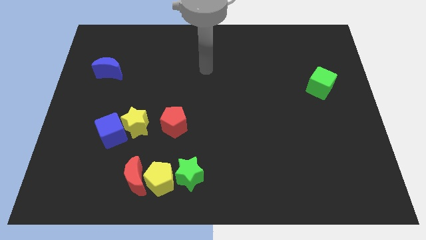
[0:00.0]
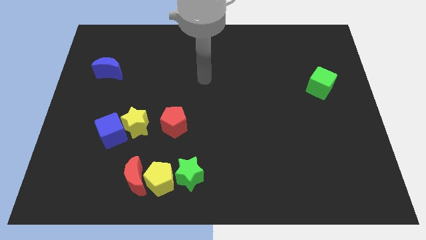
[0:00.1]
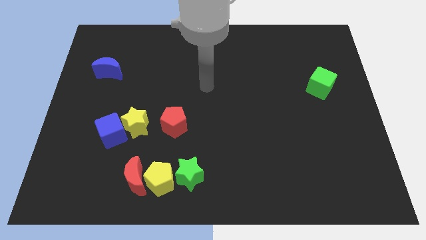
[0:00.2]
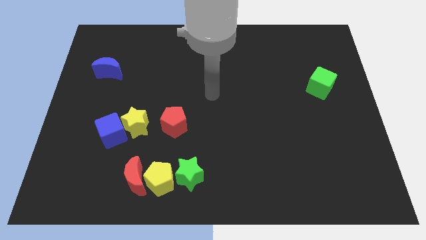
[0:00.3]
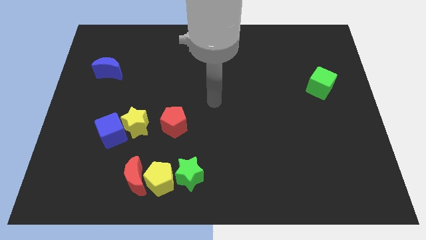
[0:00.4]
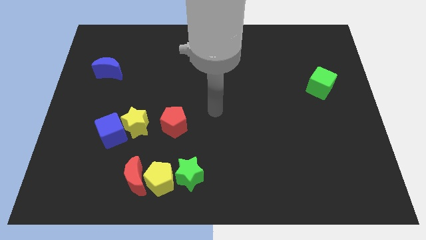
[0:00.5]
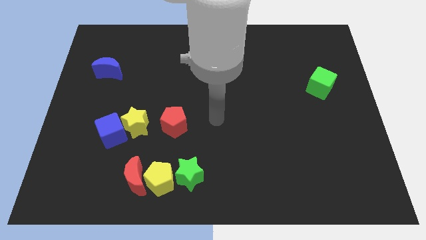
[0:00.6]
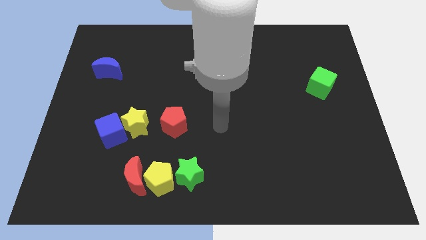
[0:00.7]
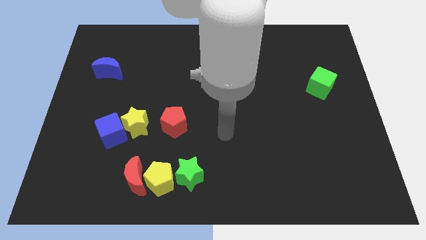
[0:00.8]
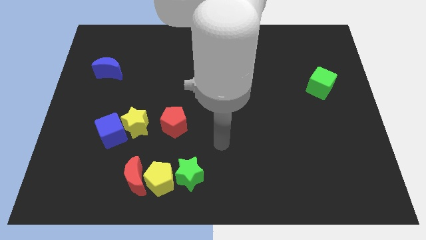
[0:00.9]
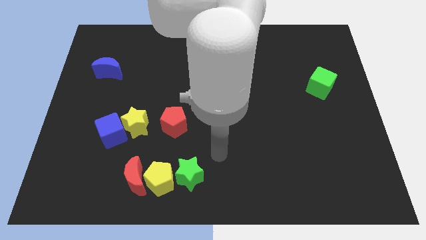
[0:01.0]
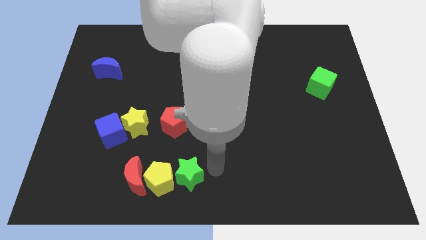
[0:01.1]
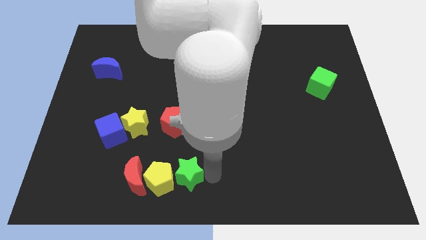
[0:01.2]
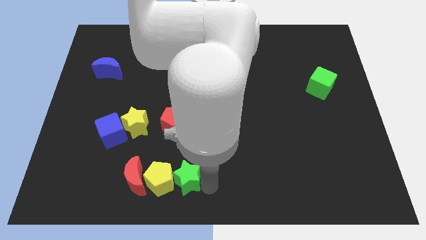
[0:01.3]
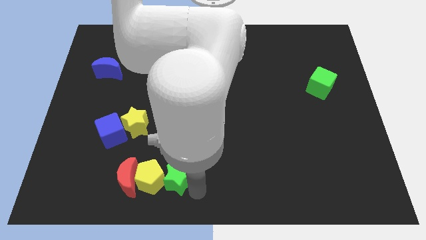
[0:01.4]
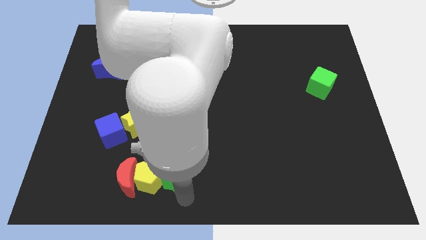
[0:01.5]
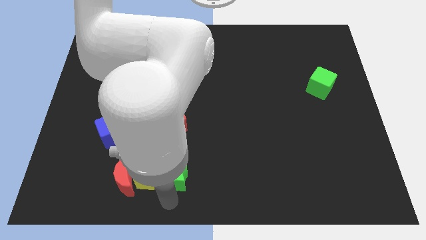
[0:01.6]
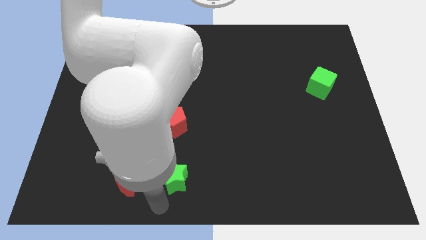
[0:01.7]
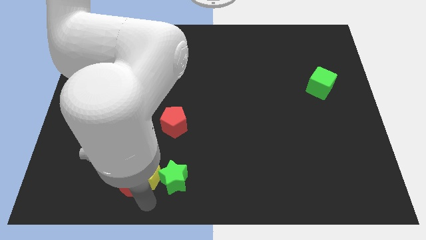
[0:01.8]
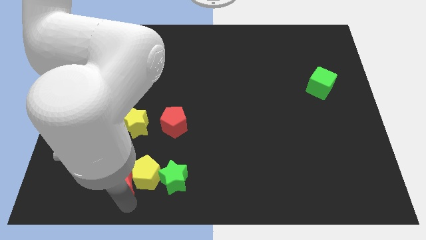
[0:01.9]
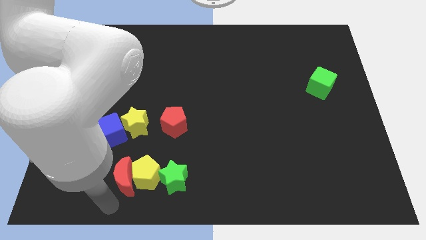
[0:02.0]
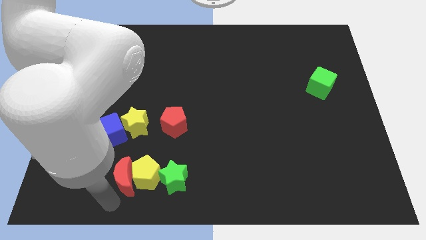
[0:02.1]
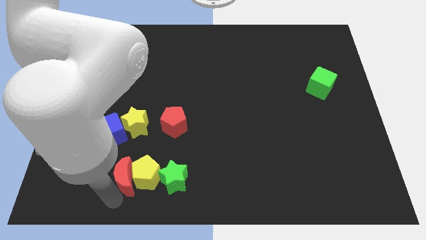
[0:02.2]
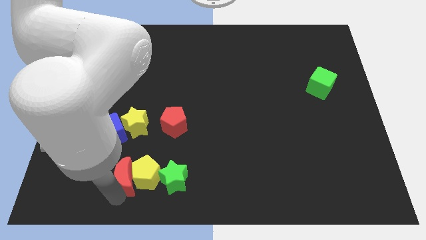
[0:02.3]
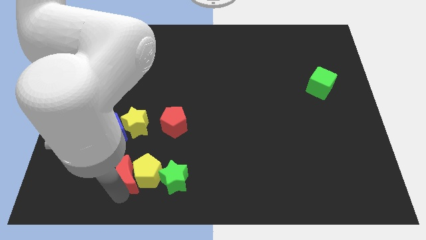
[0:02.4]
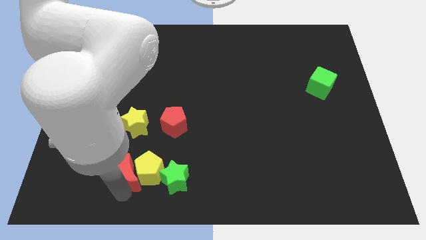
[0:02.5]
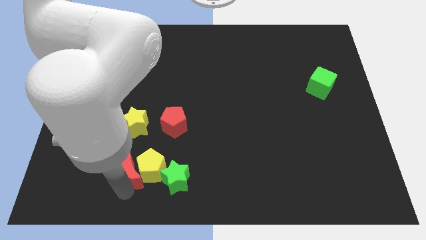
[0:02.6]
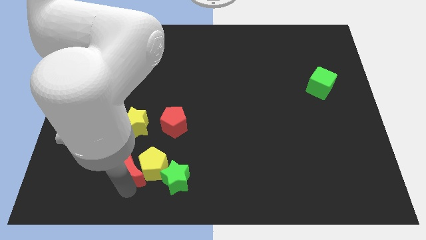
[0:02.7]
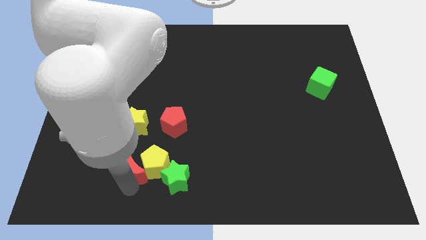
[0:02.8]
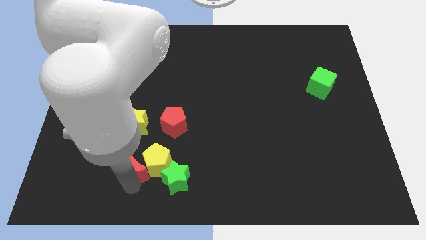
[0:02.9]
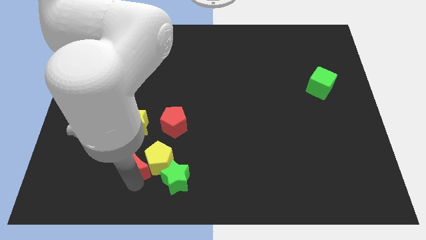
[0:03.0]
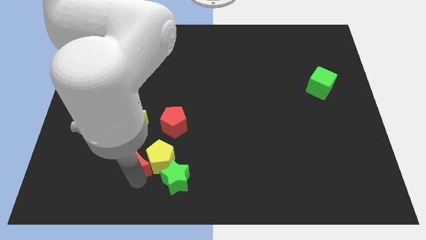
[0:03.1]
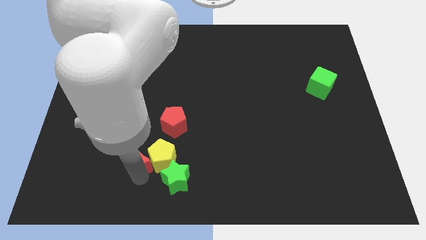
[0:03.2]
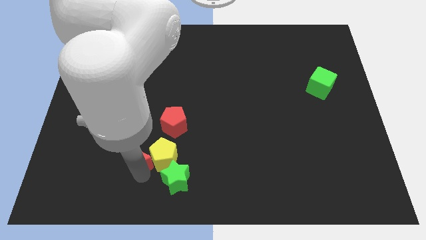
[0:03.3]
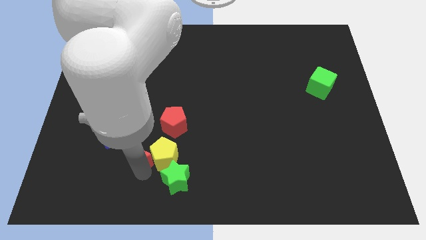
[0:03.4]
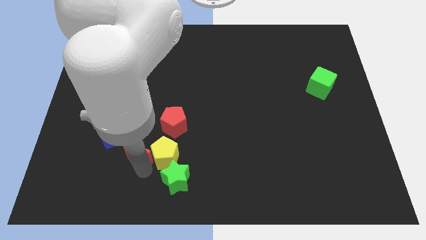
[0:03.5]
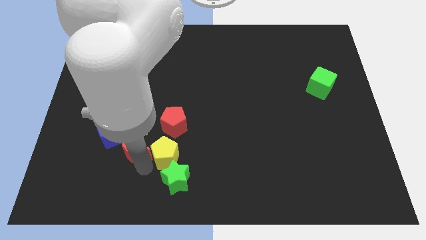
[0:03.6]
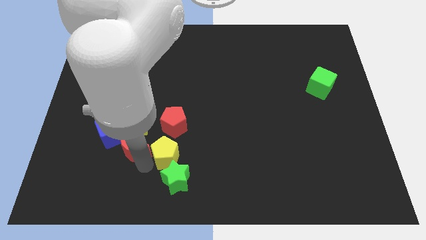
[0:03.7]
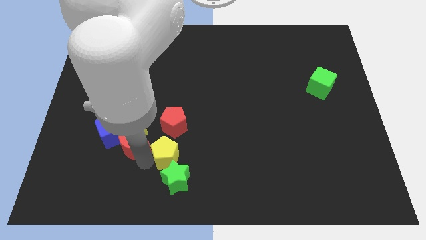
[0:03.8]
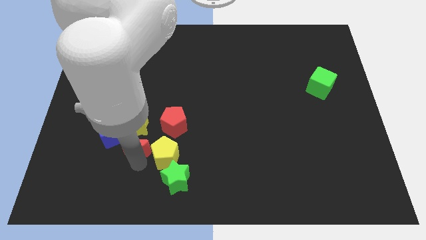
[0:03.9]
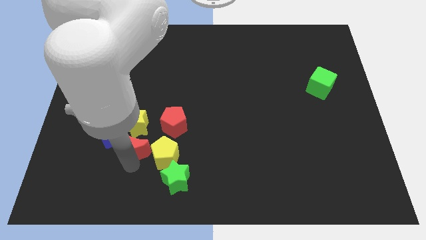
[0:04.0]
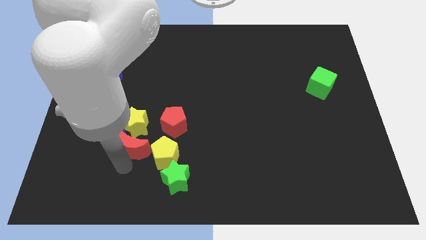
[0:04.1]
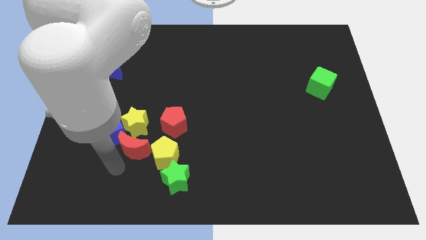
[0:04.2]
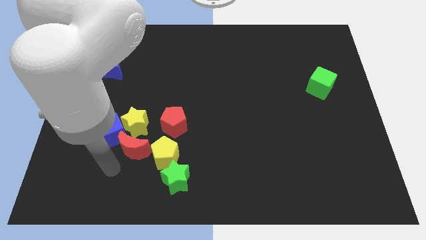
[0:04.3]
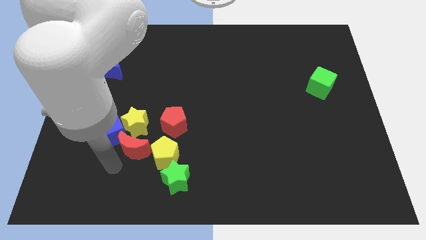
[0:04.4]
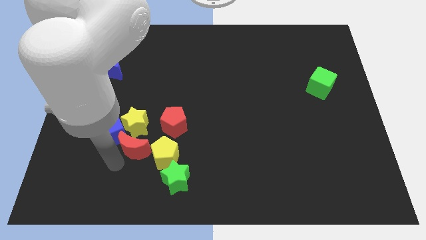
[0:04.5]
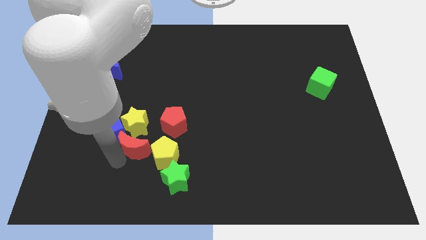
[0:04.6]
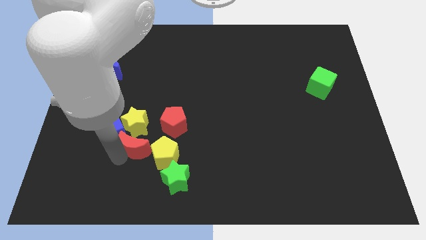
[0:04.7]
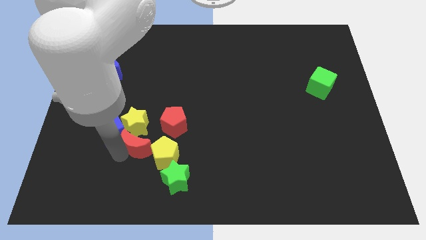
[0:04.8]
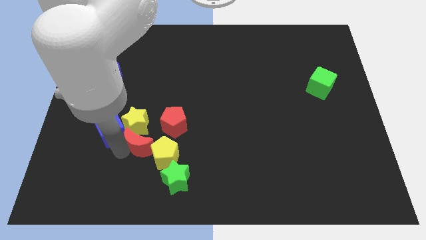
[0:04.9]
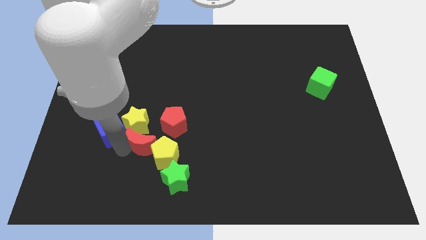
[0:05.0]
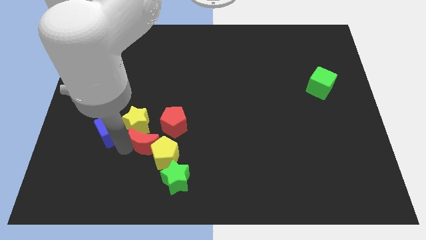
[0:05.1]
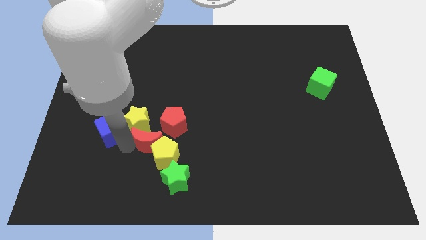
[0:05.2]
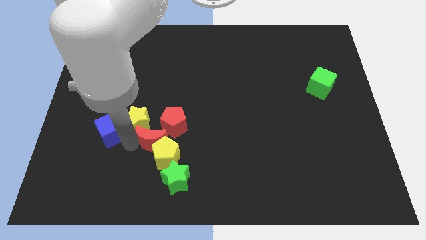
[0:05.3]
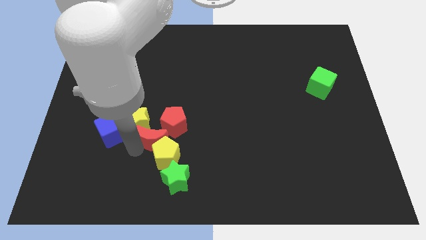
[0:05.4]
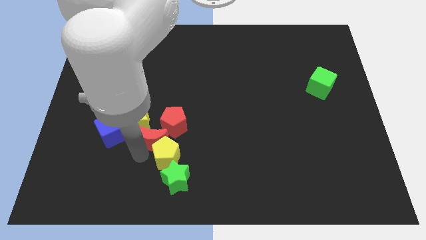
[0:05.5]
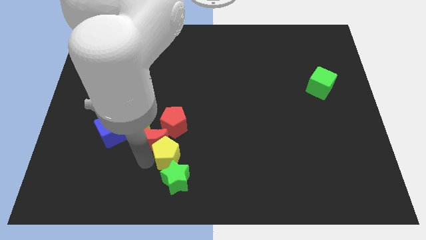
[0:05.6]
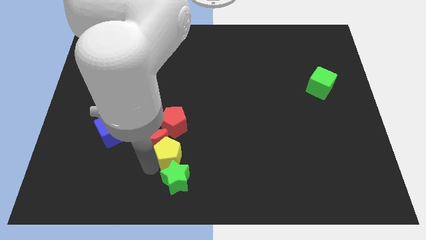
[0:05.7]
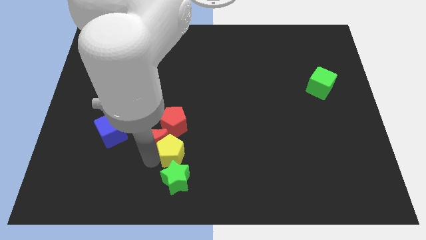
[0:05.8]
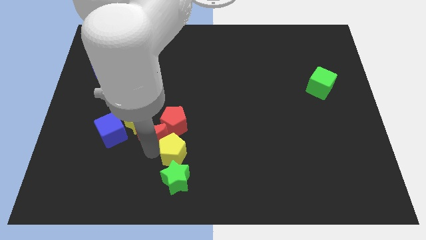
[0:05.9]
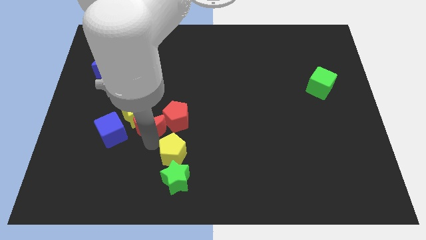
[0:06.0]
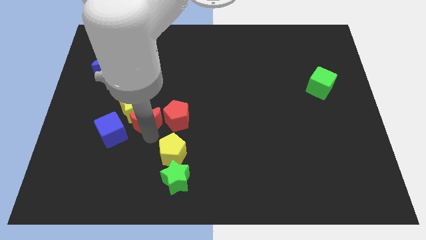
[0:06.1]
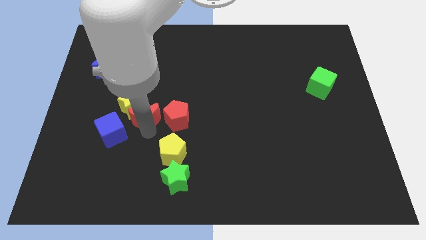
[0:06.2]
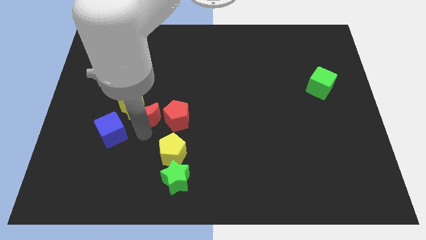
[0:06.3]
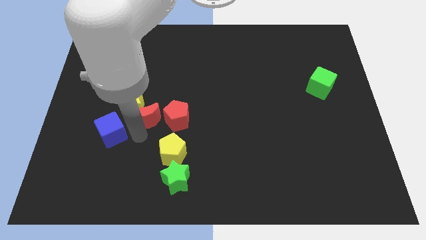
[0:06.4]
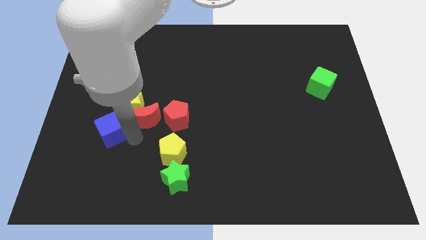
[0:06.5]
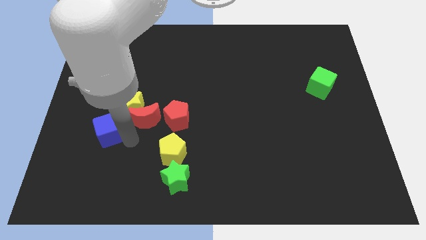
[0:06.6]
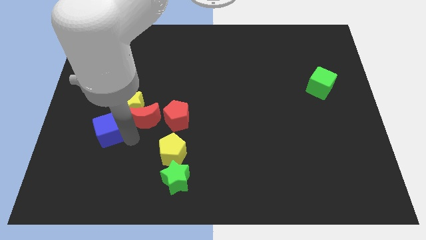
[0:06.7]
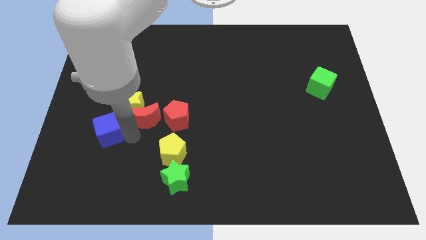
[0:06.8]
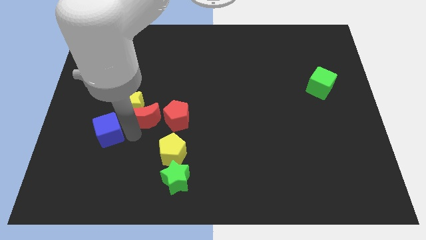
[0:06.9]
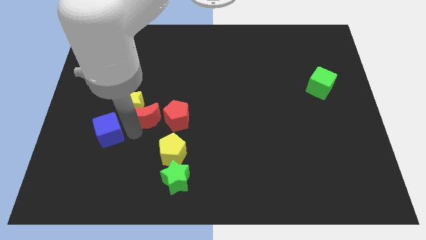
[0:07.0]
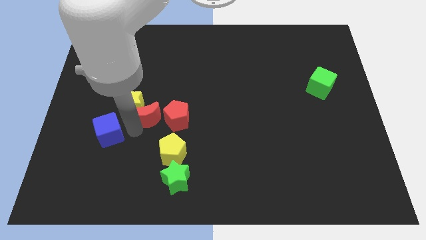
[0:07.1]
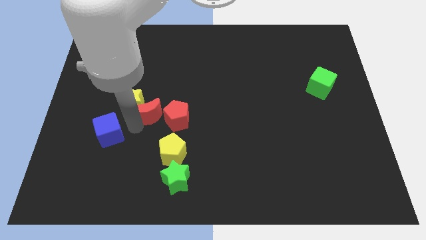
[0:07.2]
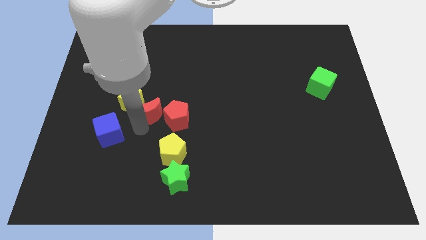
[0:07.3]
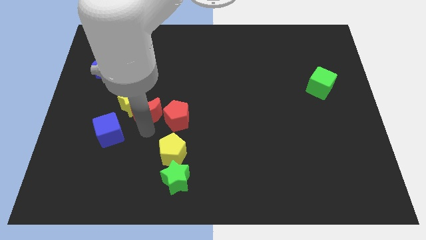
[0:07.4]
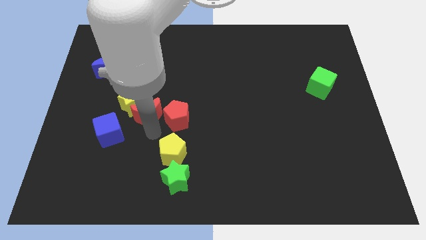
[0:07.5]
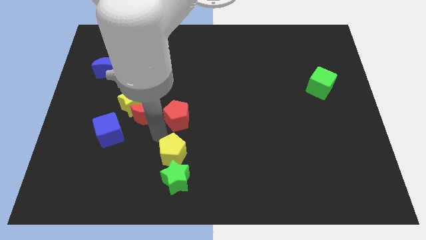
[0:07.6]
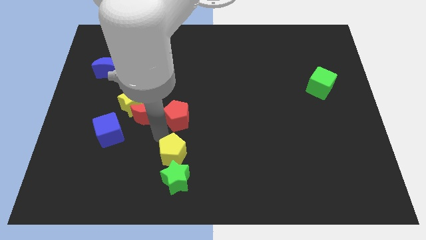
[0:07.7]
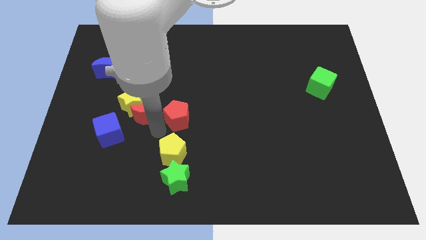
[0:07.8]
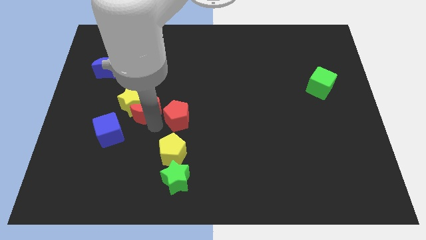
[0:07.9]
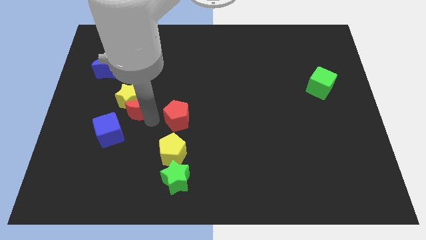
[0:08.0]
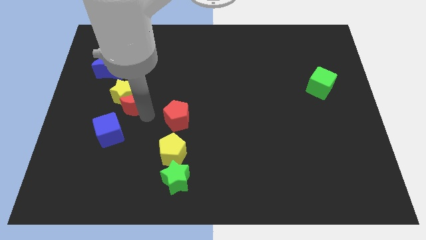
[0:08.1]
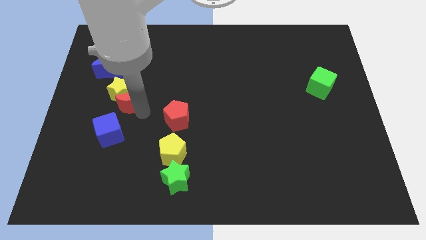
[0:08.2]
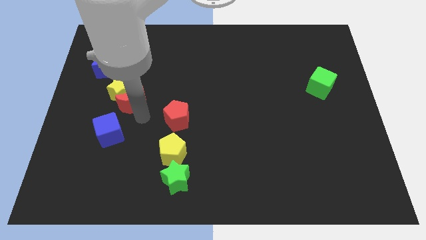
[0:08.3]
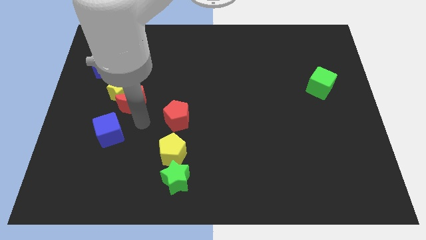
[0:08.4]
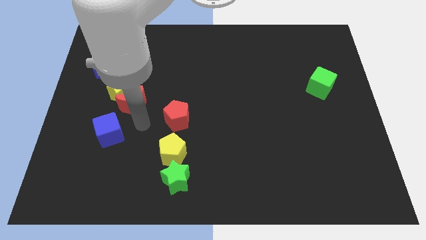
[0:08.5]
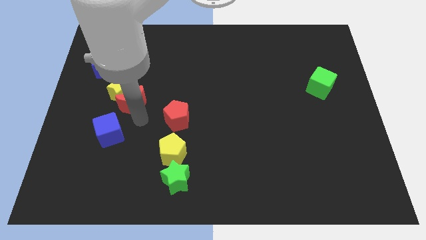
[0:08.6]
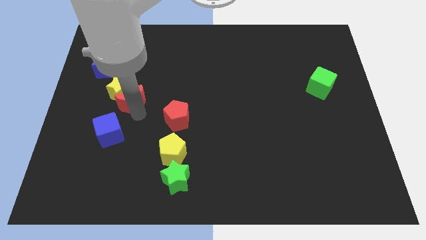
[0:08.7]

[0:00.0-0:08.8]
push the red moon to the bottom right of the blue moon
